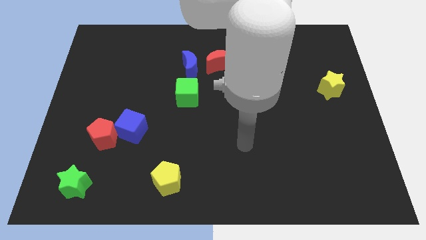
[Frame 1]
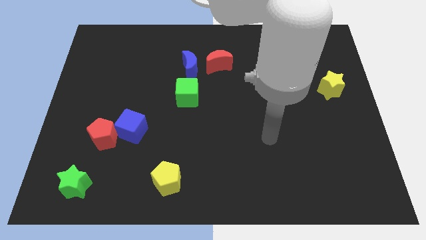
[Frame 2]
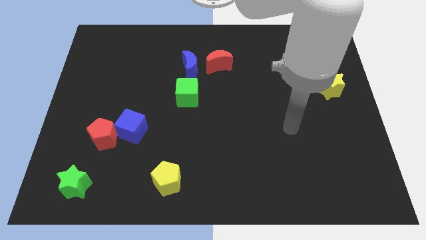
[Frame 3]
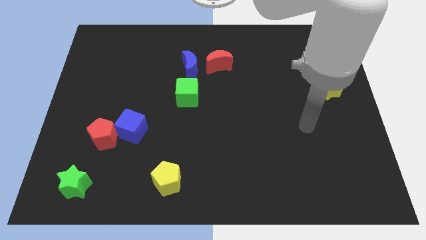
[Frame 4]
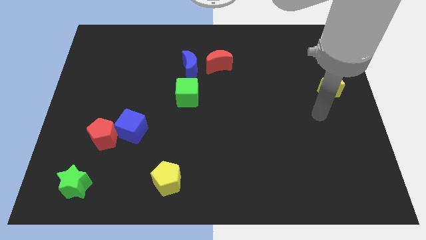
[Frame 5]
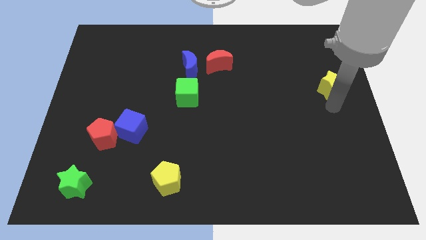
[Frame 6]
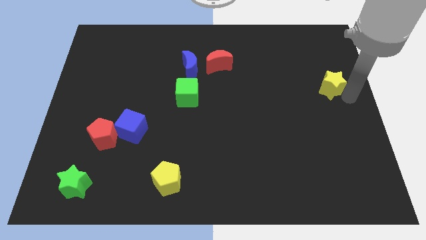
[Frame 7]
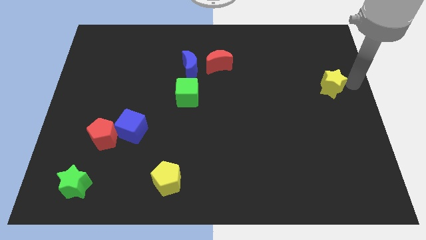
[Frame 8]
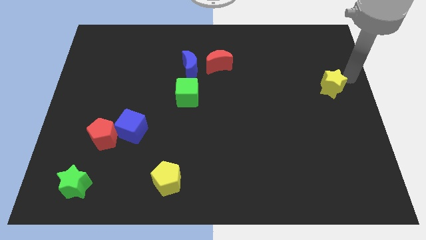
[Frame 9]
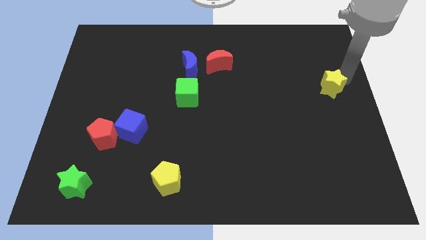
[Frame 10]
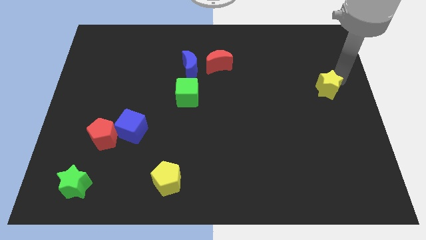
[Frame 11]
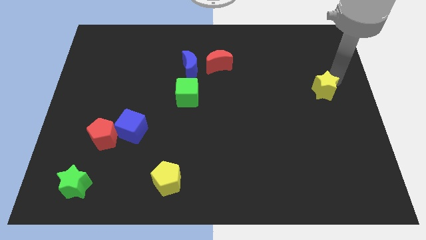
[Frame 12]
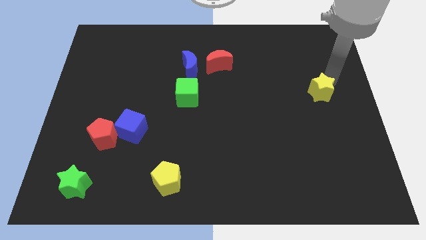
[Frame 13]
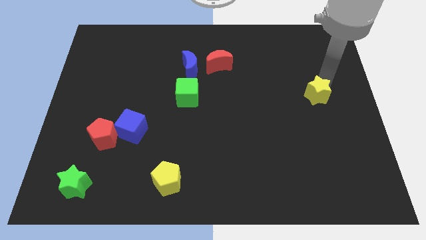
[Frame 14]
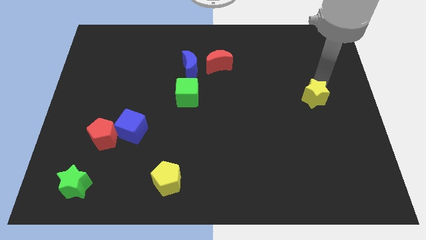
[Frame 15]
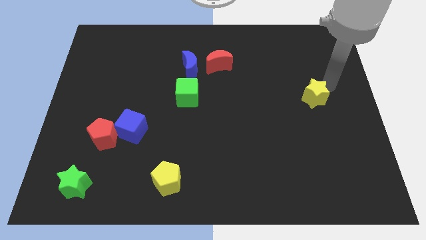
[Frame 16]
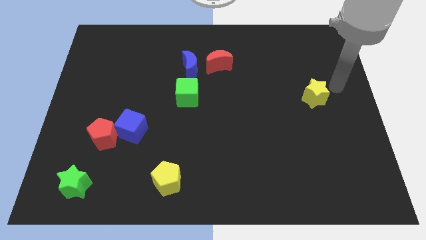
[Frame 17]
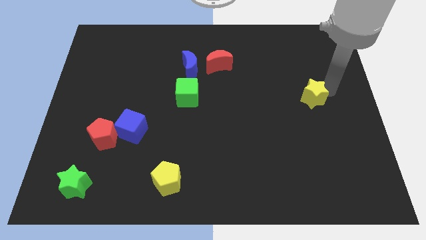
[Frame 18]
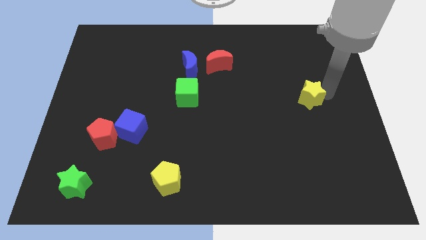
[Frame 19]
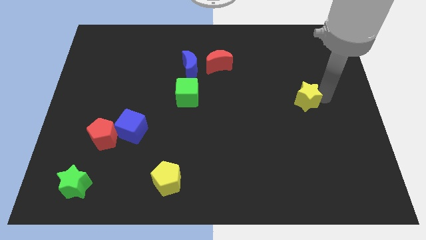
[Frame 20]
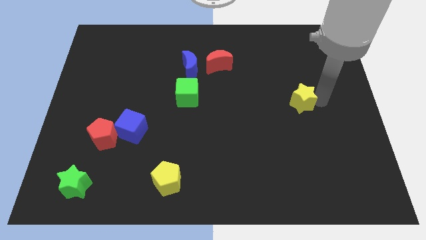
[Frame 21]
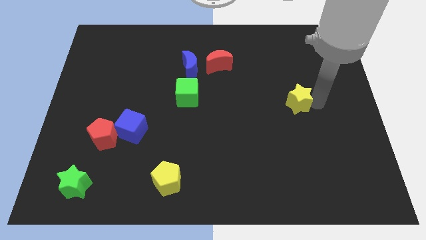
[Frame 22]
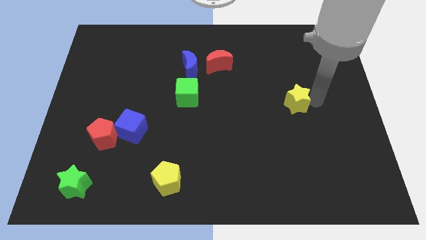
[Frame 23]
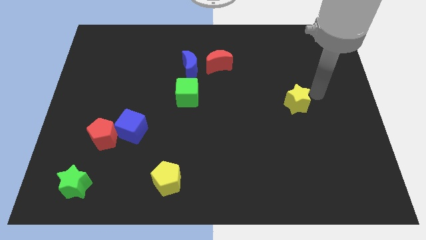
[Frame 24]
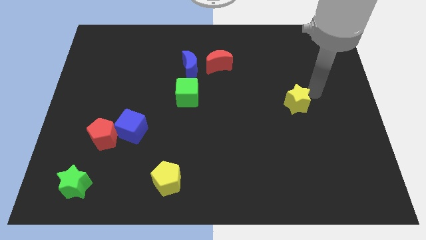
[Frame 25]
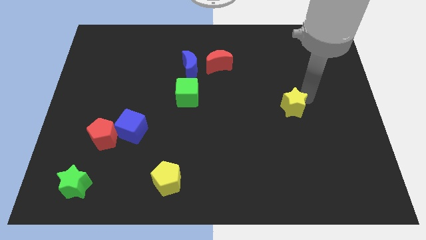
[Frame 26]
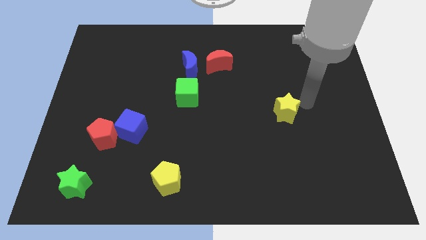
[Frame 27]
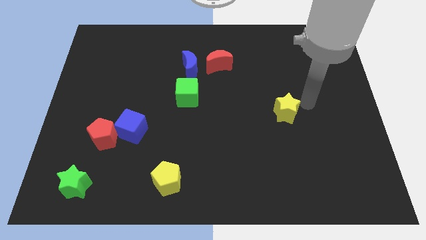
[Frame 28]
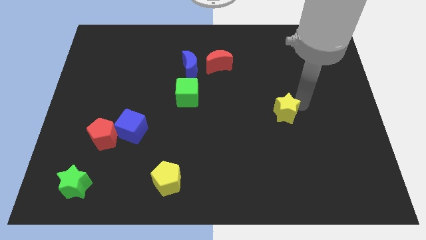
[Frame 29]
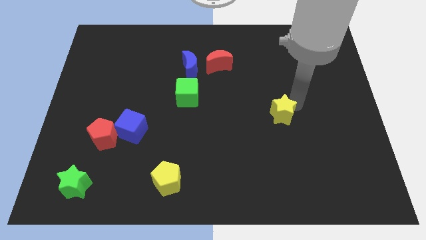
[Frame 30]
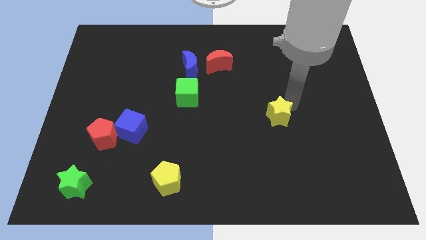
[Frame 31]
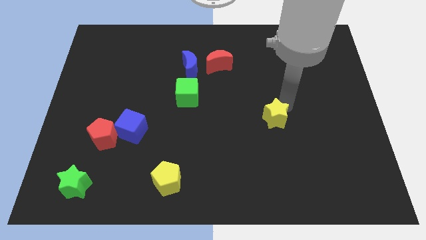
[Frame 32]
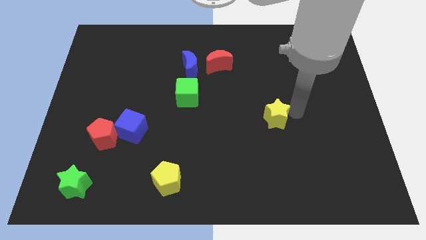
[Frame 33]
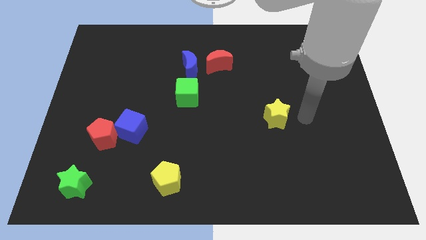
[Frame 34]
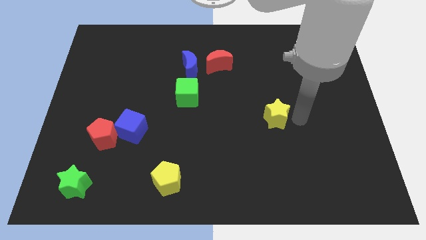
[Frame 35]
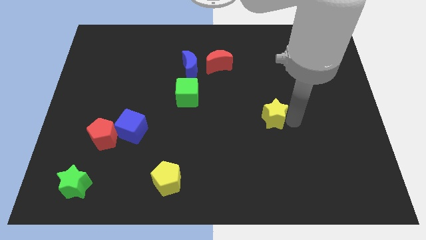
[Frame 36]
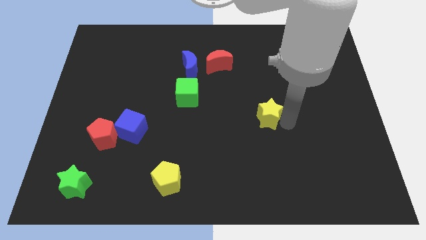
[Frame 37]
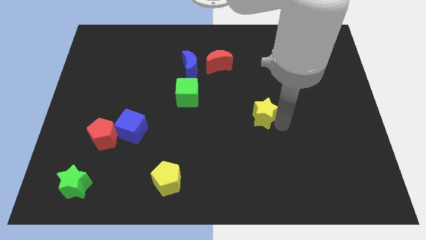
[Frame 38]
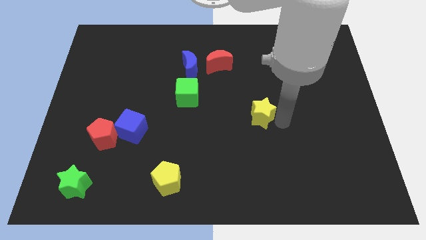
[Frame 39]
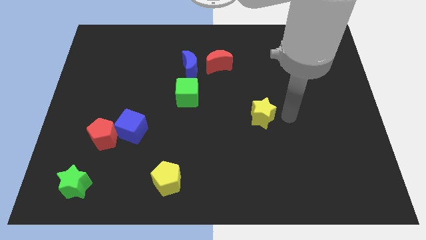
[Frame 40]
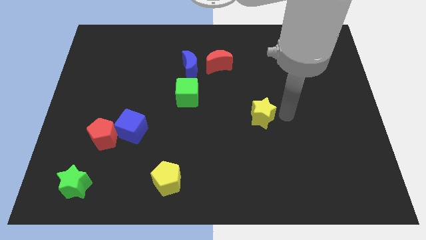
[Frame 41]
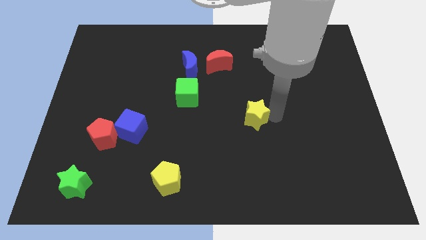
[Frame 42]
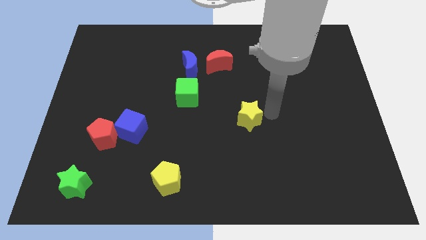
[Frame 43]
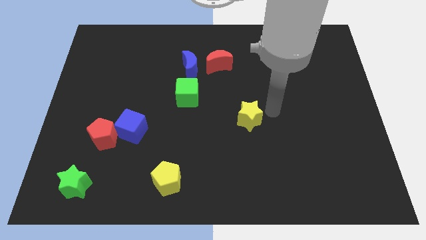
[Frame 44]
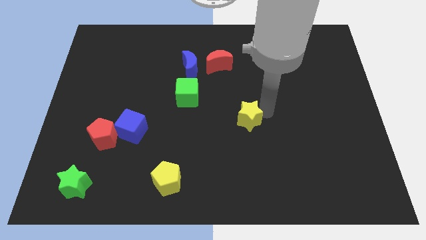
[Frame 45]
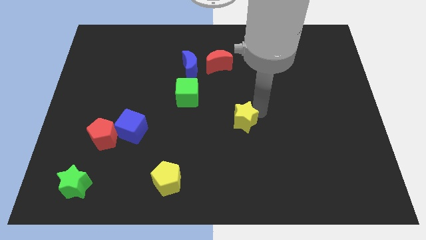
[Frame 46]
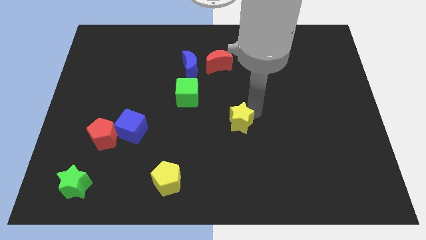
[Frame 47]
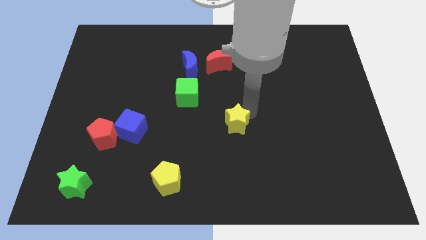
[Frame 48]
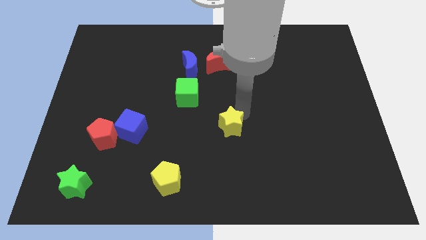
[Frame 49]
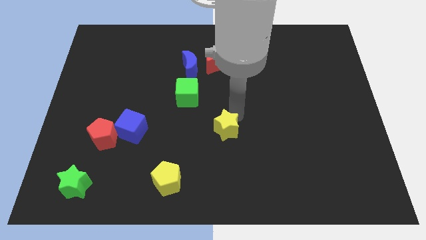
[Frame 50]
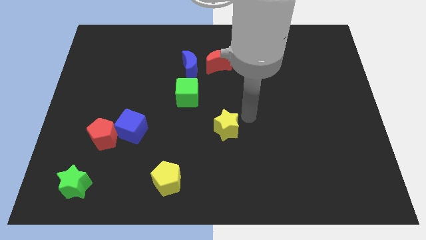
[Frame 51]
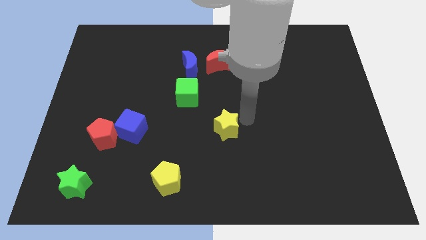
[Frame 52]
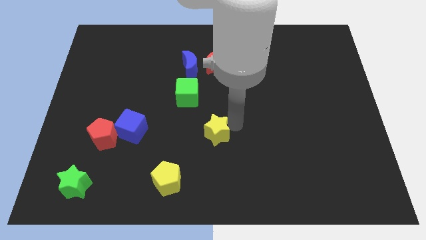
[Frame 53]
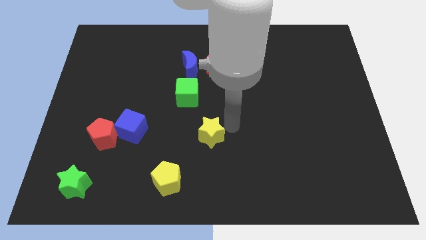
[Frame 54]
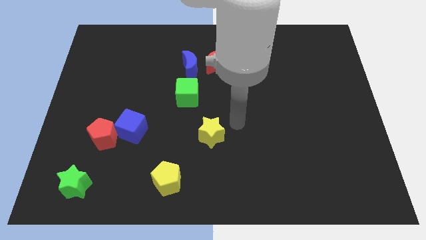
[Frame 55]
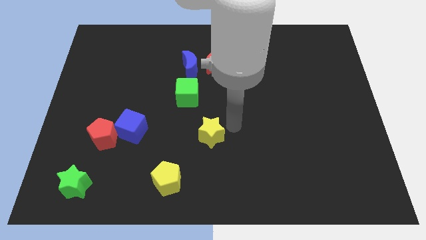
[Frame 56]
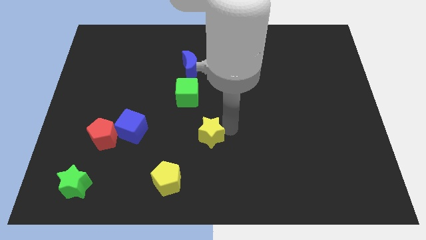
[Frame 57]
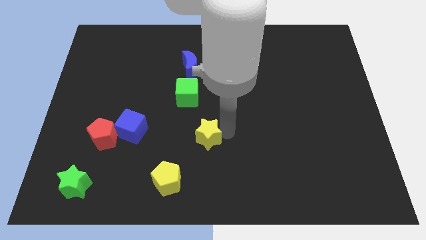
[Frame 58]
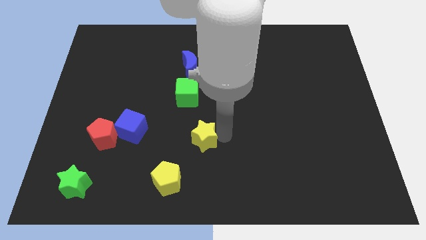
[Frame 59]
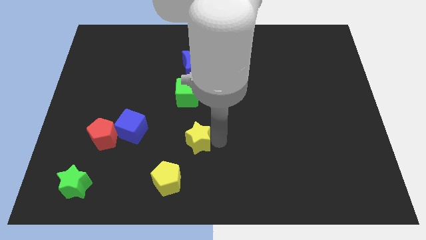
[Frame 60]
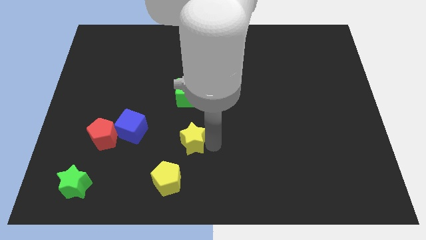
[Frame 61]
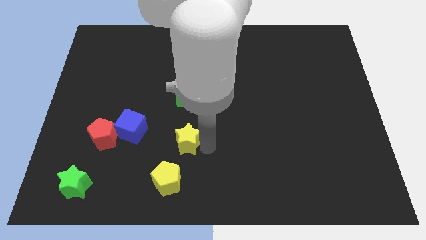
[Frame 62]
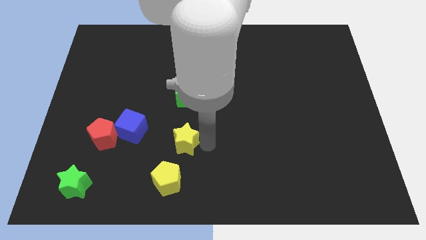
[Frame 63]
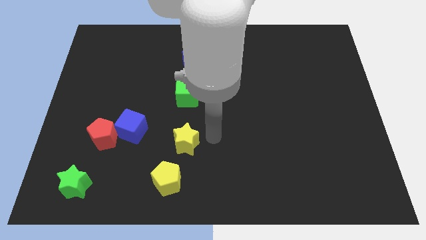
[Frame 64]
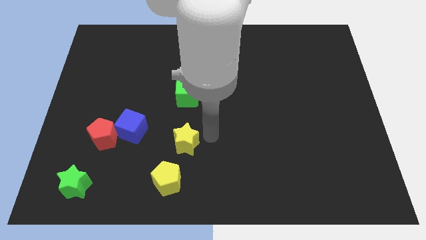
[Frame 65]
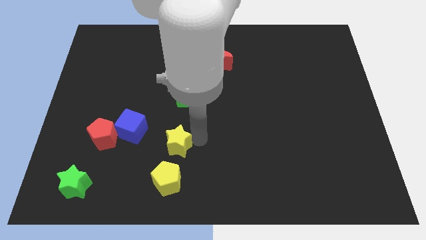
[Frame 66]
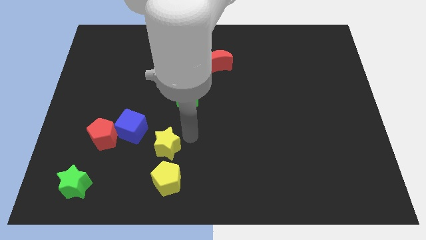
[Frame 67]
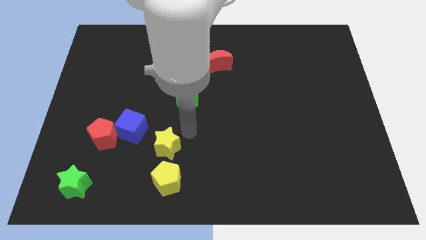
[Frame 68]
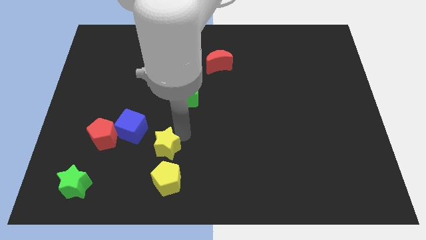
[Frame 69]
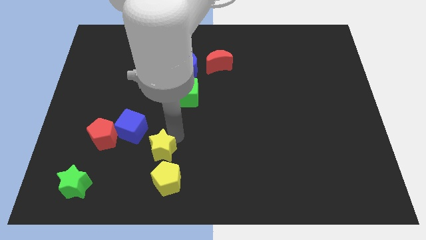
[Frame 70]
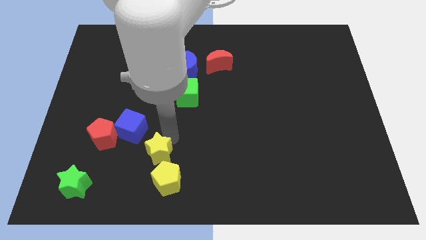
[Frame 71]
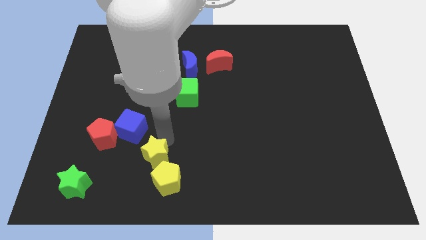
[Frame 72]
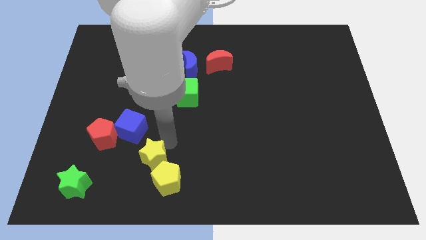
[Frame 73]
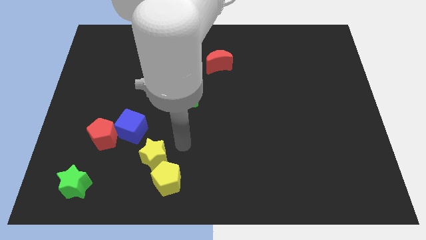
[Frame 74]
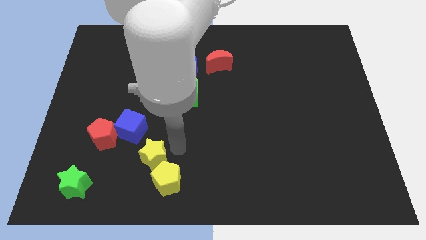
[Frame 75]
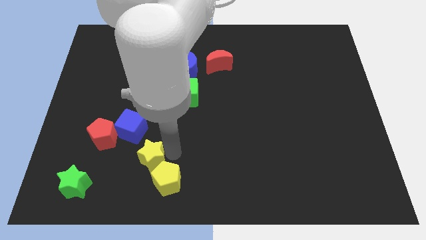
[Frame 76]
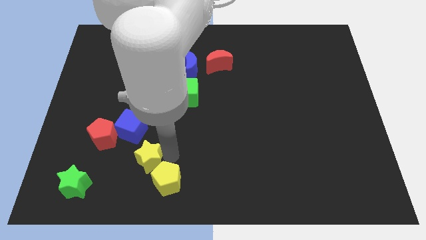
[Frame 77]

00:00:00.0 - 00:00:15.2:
slide the yellow star below the blue cube
